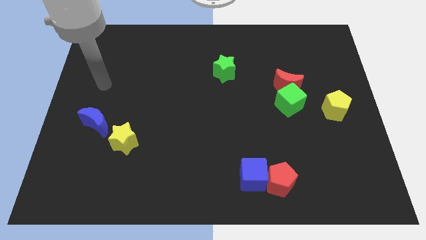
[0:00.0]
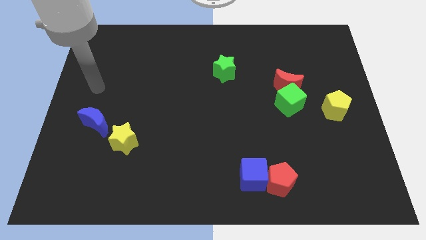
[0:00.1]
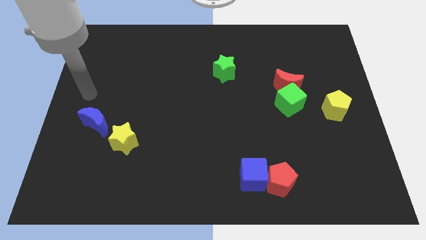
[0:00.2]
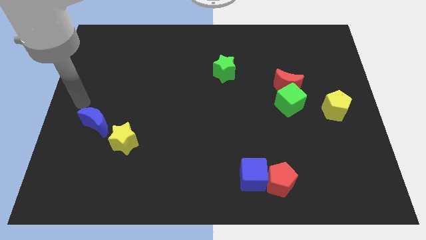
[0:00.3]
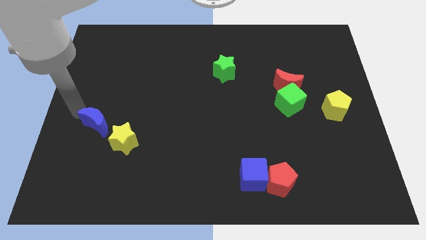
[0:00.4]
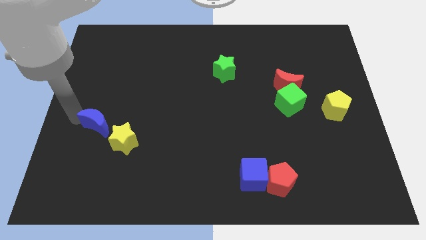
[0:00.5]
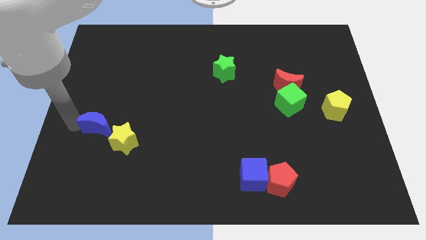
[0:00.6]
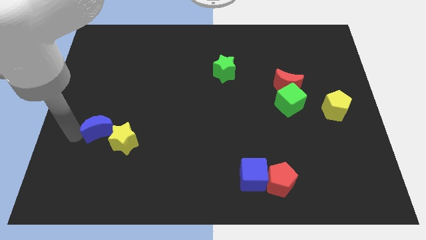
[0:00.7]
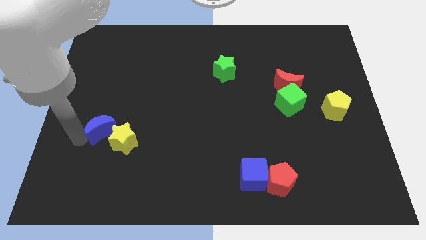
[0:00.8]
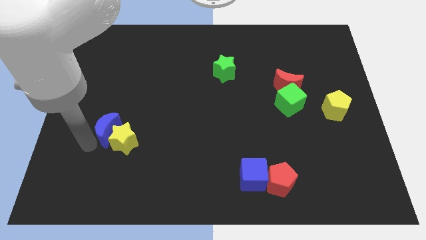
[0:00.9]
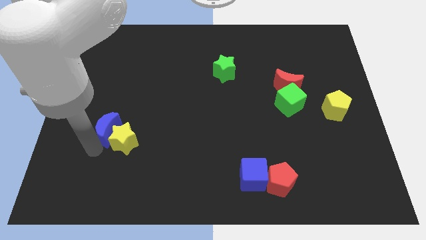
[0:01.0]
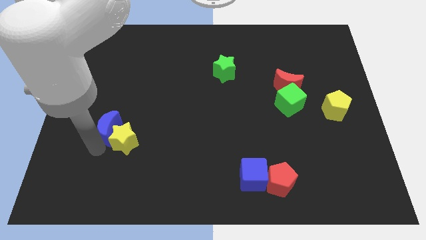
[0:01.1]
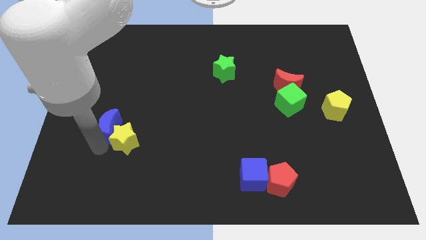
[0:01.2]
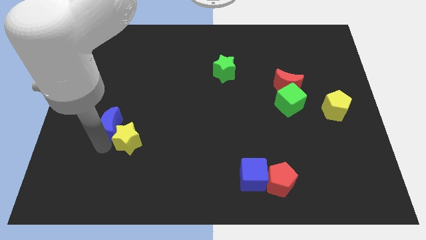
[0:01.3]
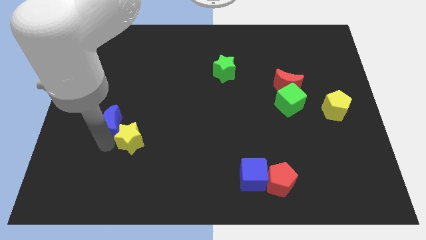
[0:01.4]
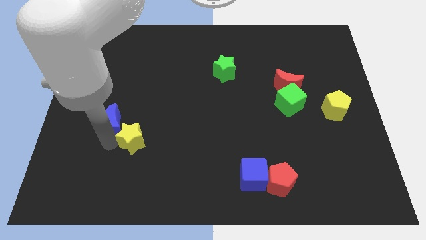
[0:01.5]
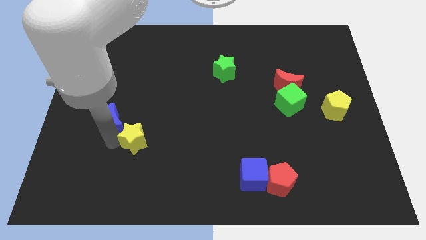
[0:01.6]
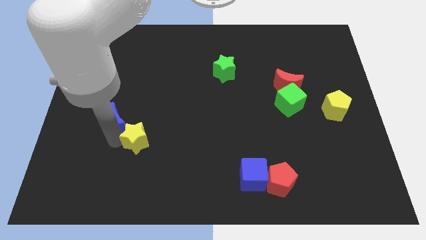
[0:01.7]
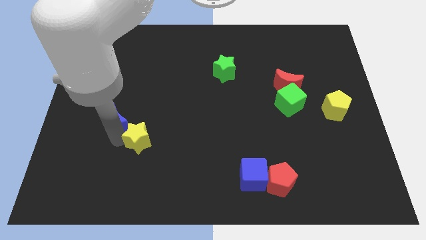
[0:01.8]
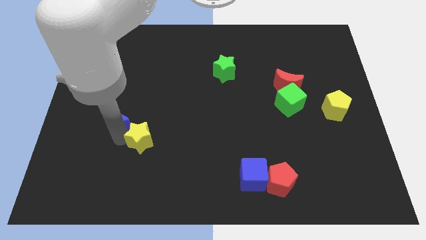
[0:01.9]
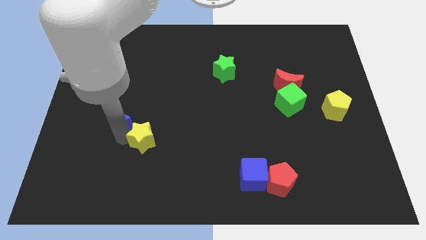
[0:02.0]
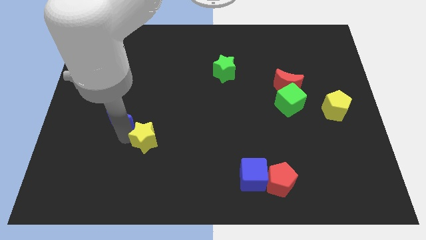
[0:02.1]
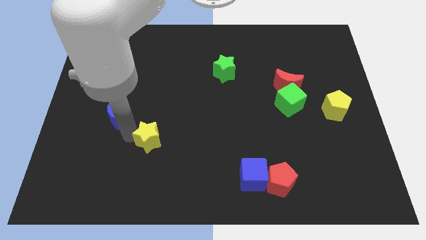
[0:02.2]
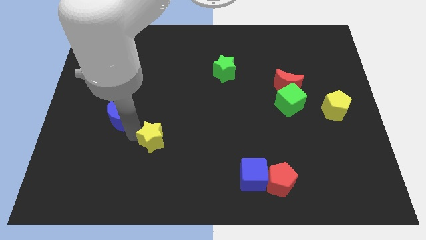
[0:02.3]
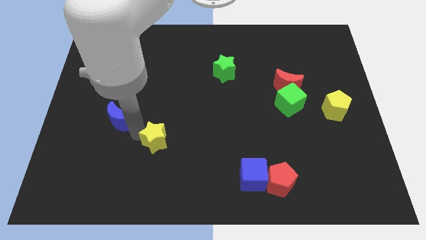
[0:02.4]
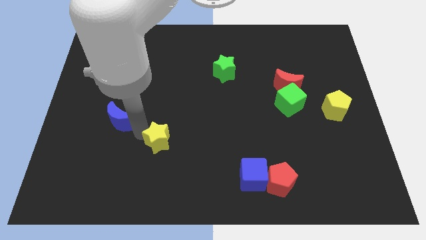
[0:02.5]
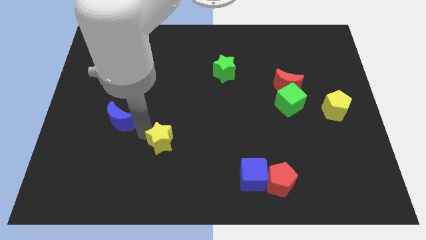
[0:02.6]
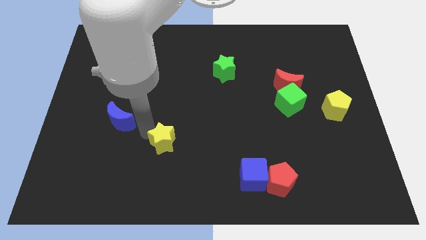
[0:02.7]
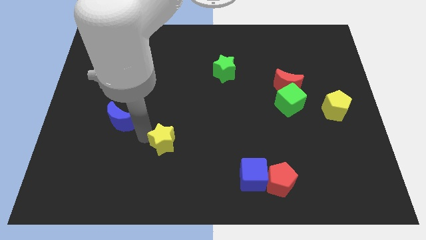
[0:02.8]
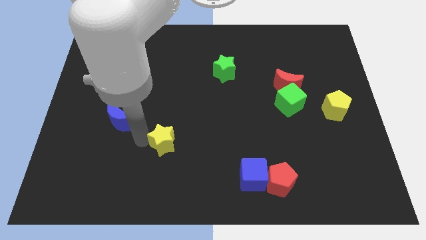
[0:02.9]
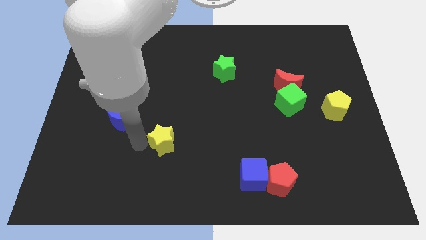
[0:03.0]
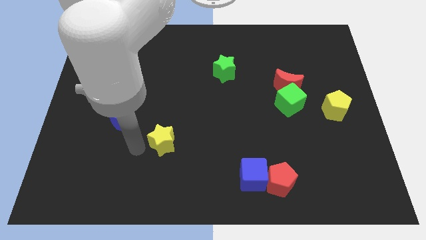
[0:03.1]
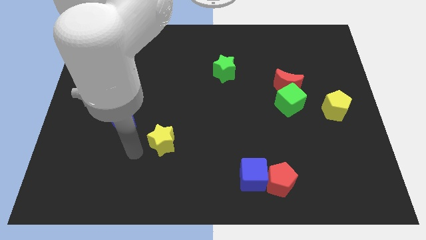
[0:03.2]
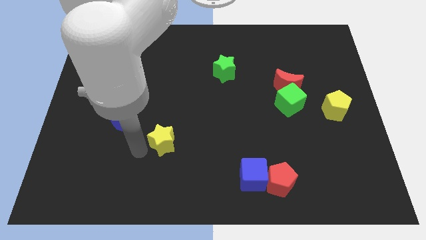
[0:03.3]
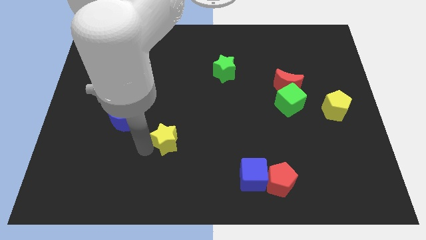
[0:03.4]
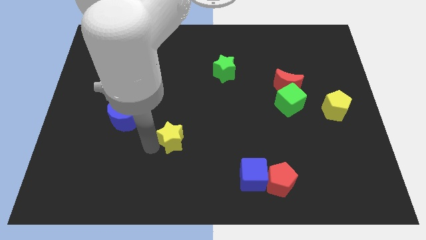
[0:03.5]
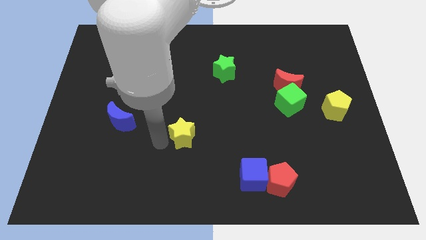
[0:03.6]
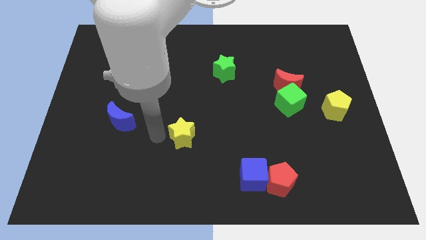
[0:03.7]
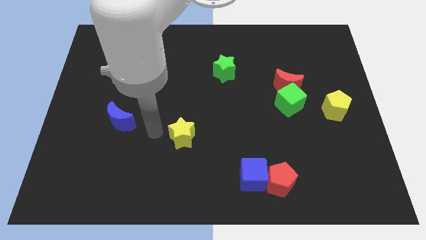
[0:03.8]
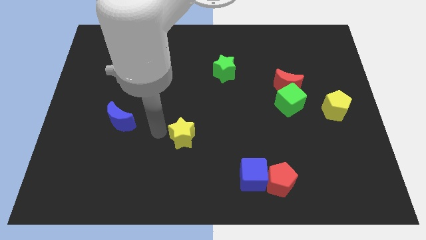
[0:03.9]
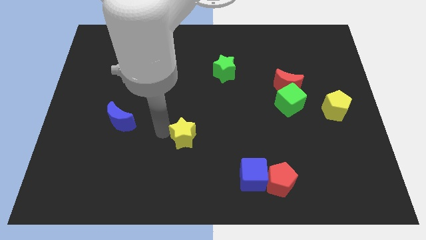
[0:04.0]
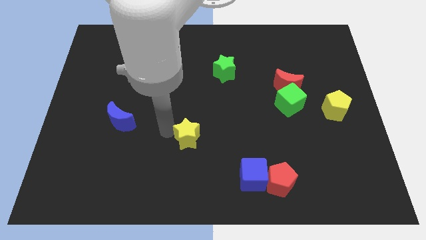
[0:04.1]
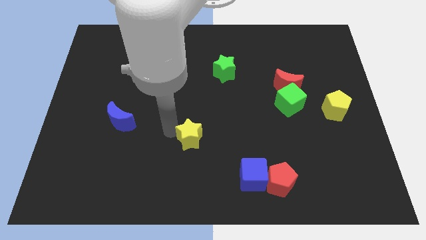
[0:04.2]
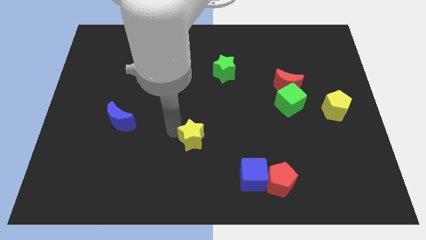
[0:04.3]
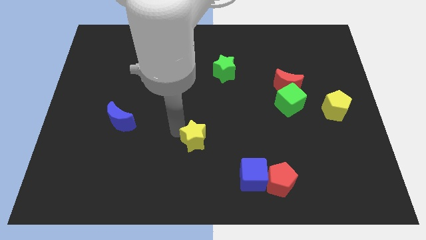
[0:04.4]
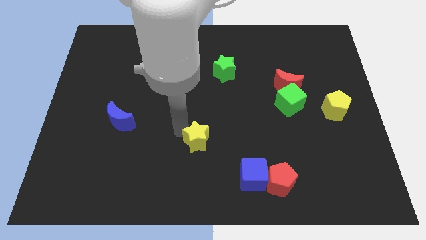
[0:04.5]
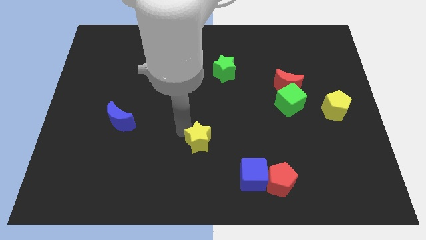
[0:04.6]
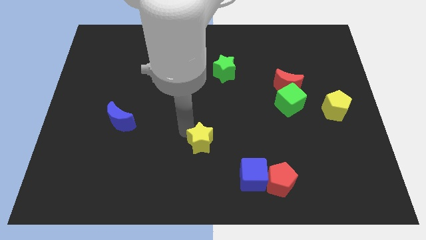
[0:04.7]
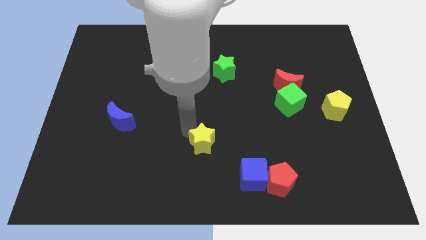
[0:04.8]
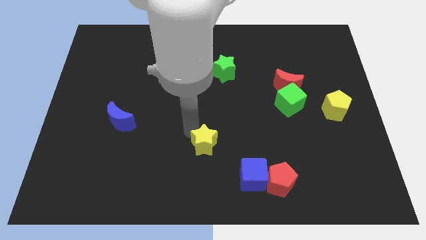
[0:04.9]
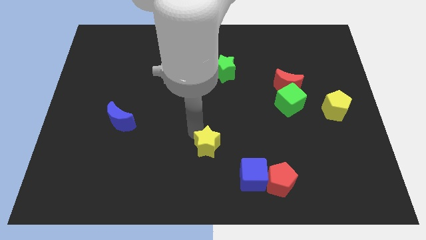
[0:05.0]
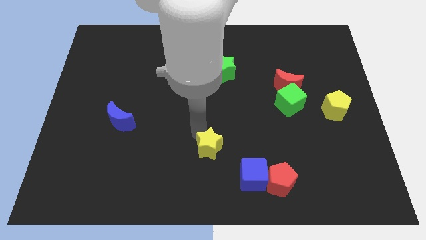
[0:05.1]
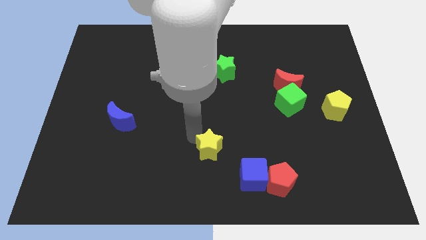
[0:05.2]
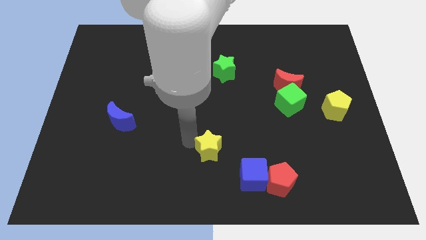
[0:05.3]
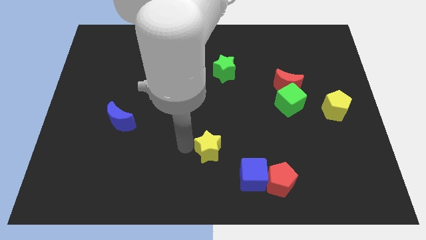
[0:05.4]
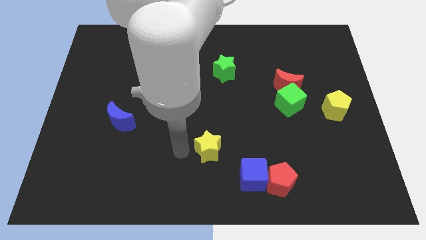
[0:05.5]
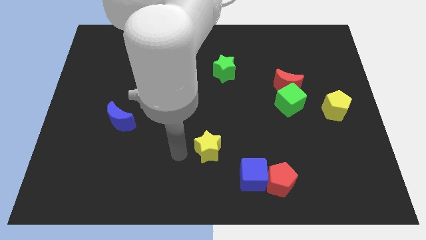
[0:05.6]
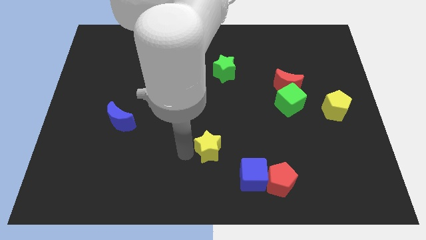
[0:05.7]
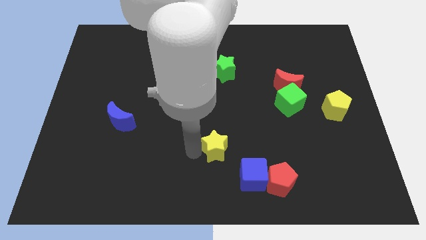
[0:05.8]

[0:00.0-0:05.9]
push the yellow star to the right

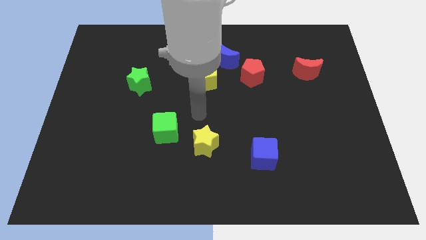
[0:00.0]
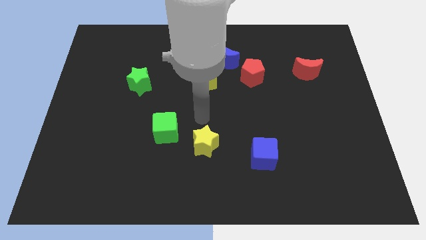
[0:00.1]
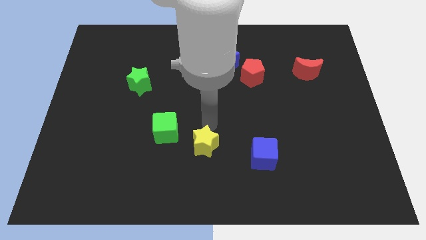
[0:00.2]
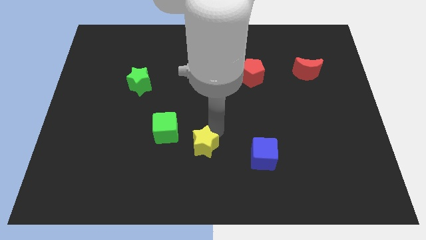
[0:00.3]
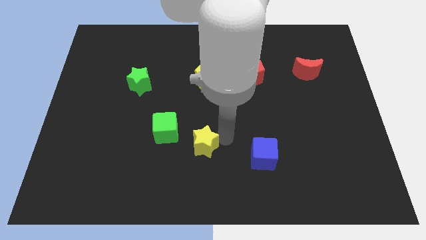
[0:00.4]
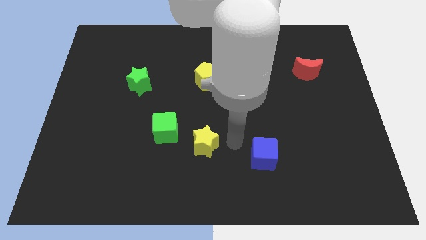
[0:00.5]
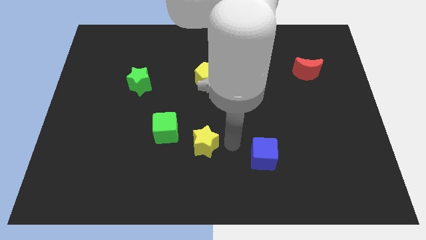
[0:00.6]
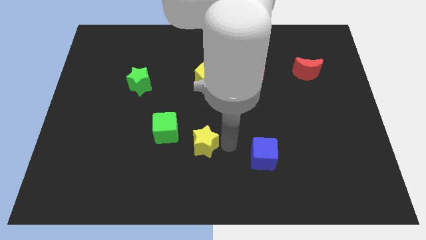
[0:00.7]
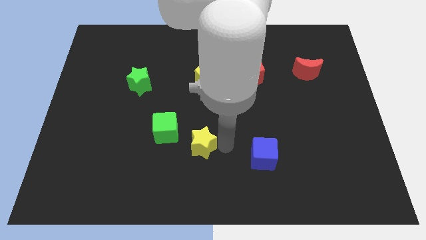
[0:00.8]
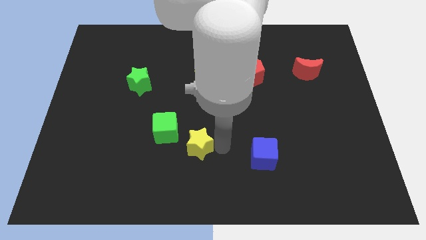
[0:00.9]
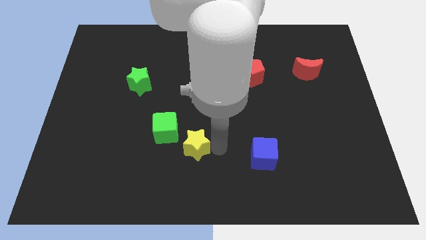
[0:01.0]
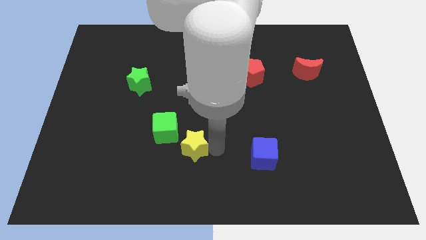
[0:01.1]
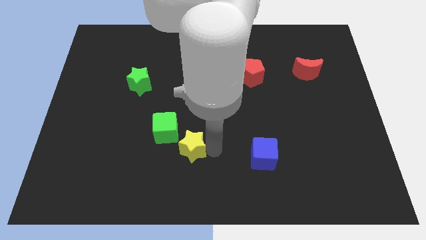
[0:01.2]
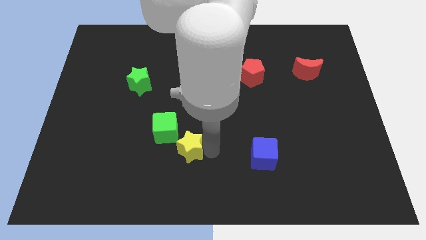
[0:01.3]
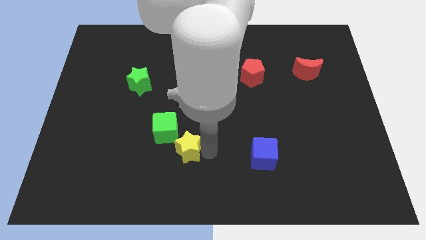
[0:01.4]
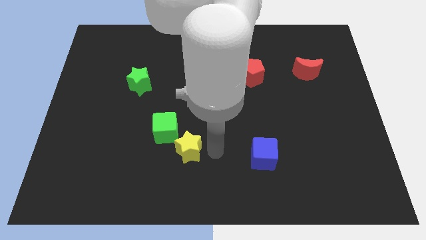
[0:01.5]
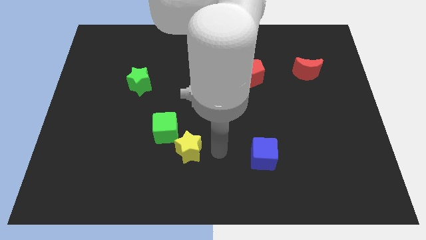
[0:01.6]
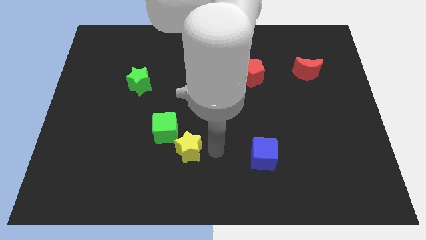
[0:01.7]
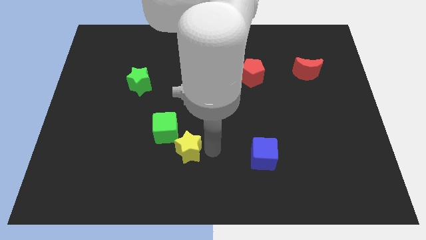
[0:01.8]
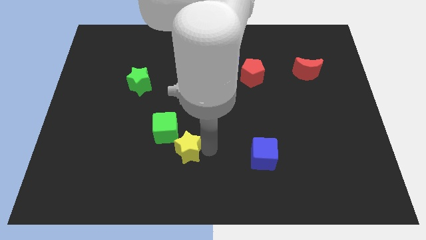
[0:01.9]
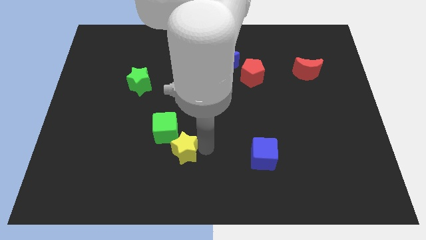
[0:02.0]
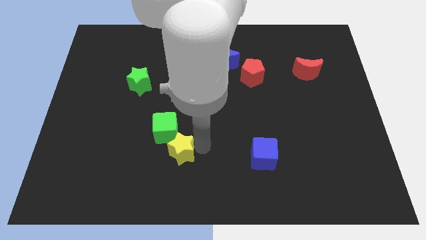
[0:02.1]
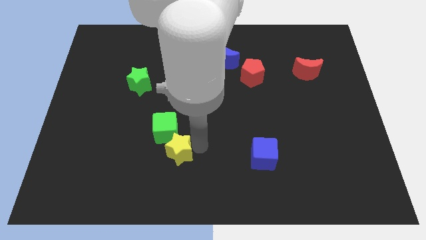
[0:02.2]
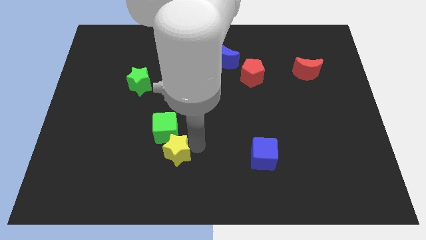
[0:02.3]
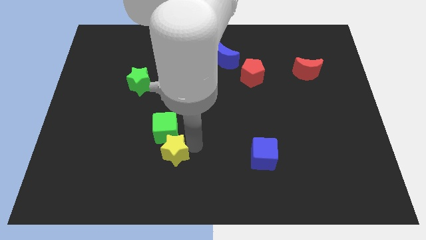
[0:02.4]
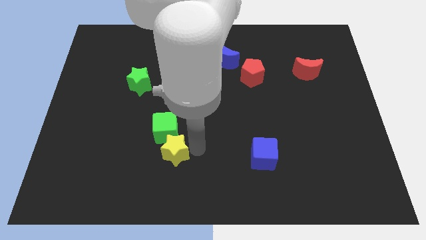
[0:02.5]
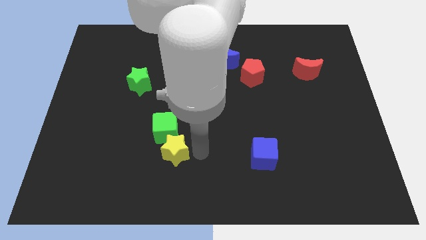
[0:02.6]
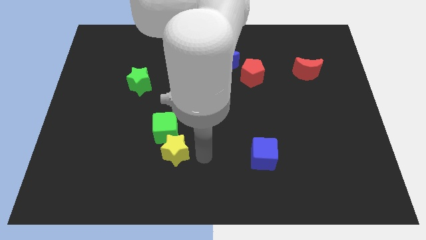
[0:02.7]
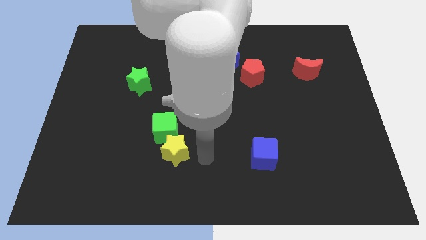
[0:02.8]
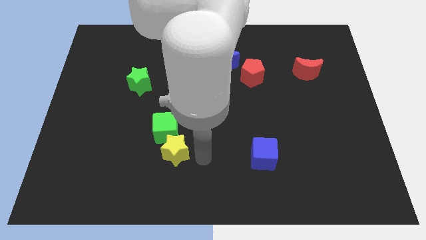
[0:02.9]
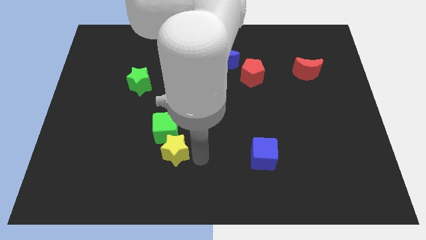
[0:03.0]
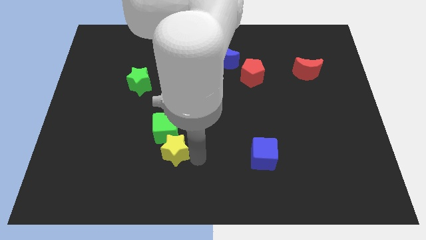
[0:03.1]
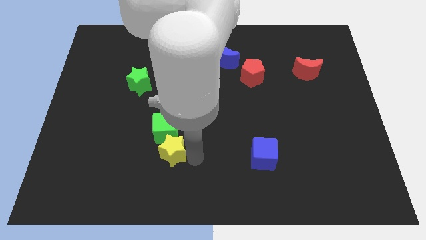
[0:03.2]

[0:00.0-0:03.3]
slide the yellow star left a little
